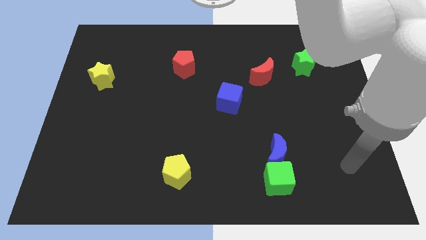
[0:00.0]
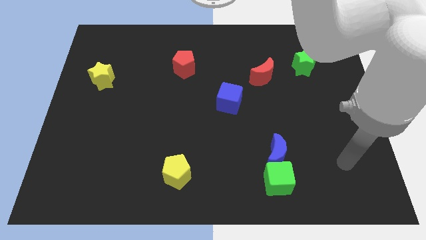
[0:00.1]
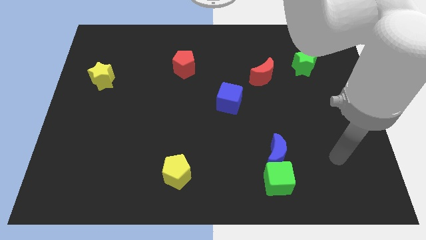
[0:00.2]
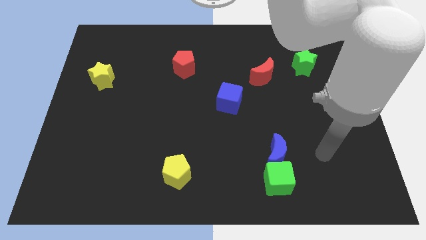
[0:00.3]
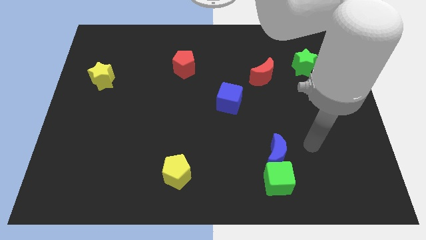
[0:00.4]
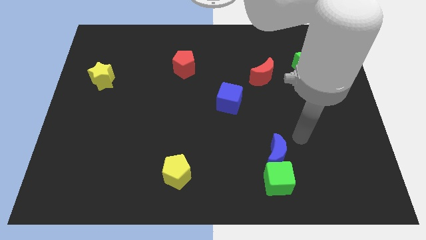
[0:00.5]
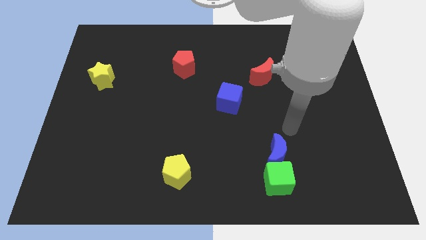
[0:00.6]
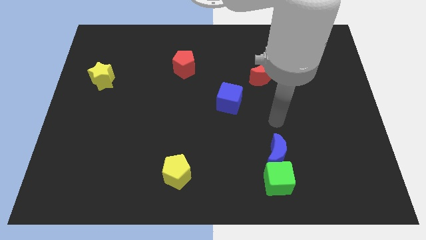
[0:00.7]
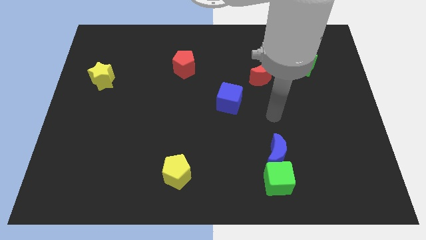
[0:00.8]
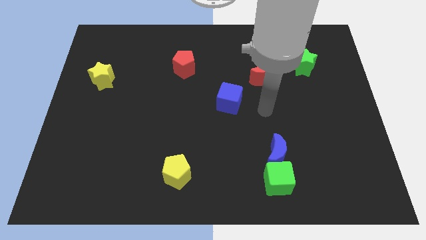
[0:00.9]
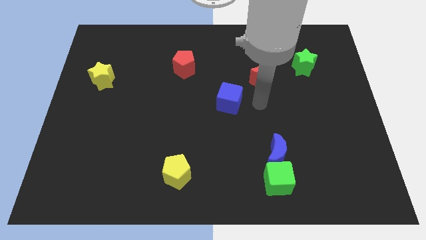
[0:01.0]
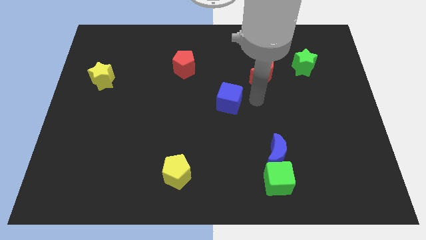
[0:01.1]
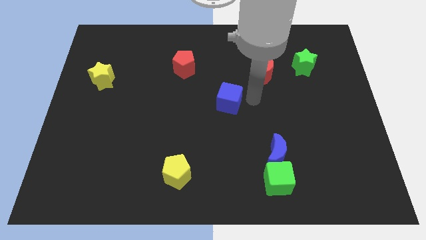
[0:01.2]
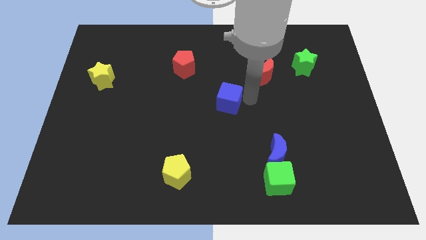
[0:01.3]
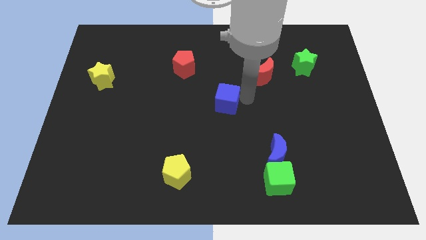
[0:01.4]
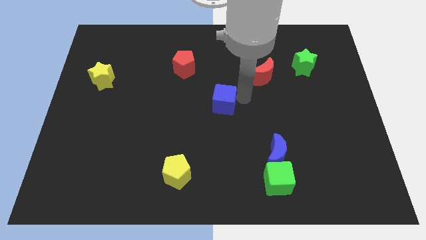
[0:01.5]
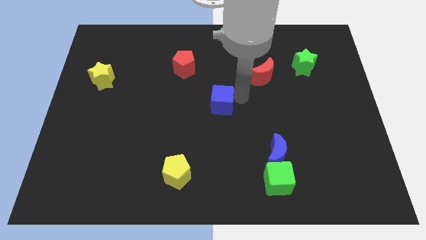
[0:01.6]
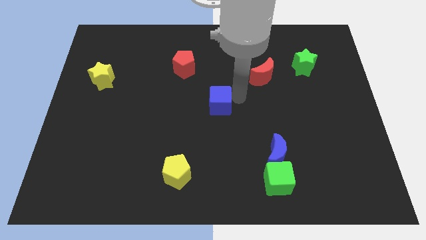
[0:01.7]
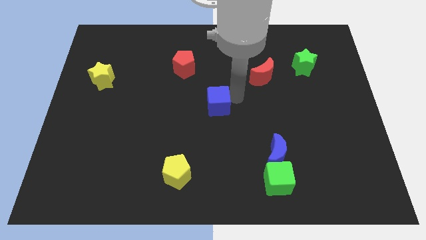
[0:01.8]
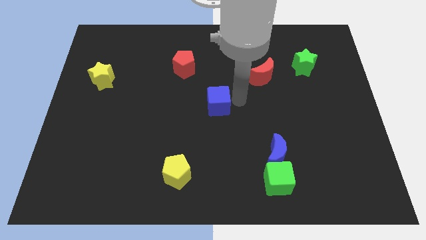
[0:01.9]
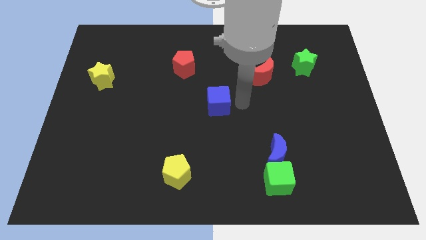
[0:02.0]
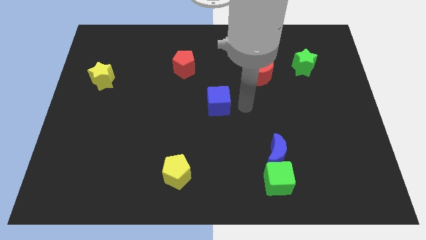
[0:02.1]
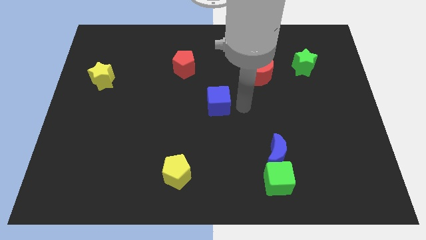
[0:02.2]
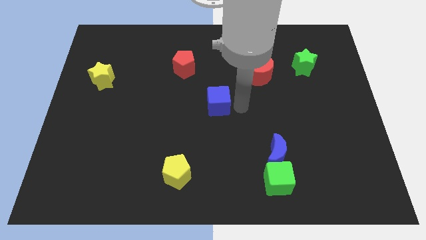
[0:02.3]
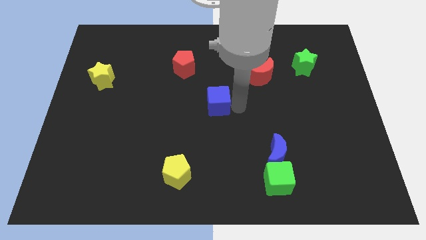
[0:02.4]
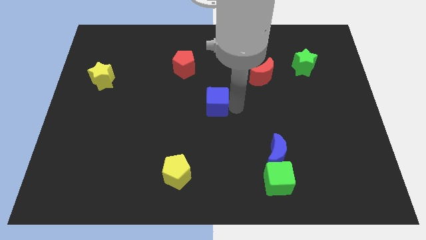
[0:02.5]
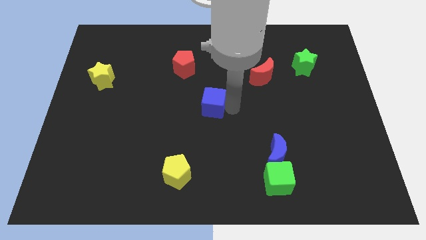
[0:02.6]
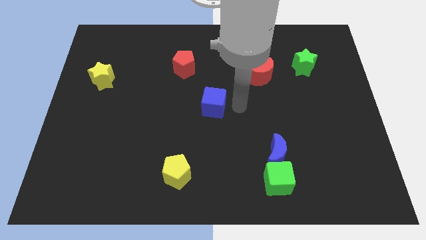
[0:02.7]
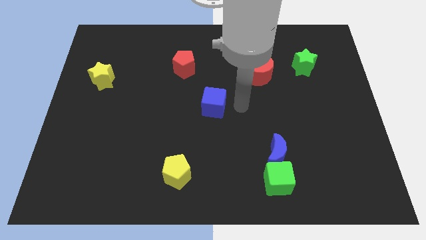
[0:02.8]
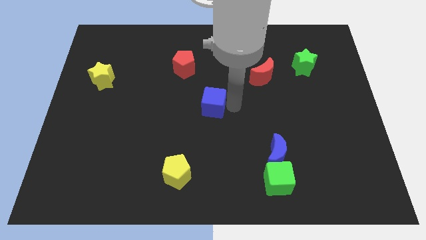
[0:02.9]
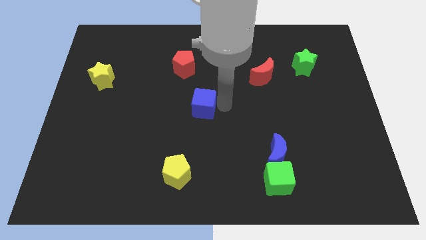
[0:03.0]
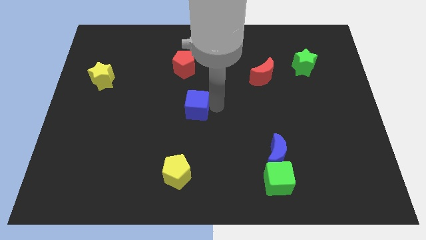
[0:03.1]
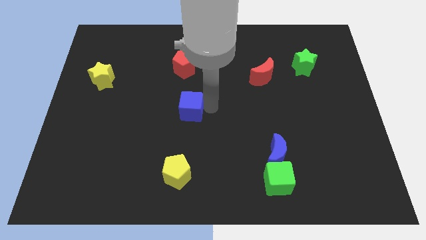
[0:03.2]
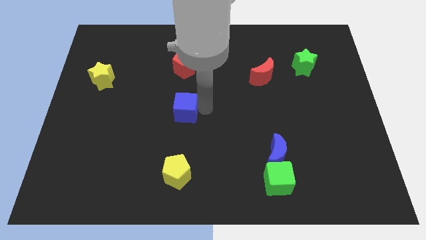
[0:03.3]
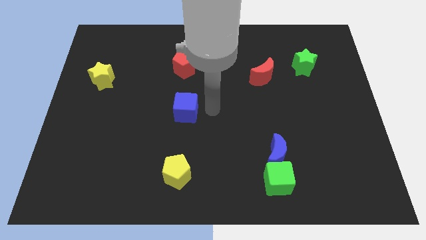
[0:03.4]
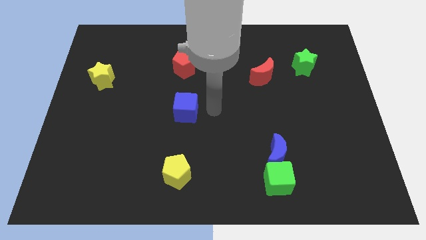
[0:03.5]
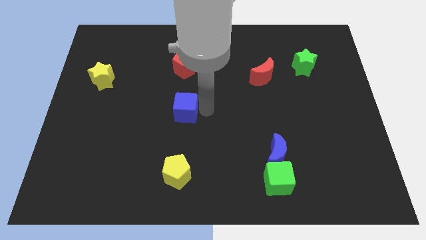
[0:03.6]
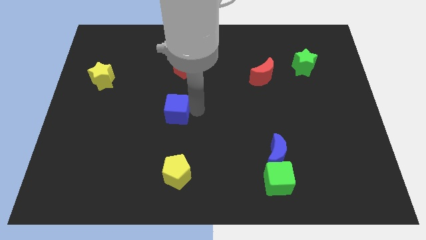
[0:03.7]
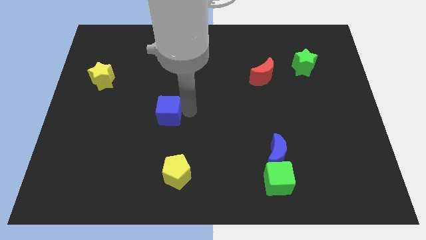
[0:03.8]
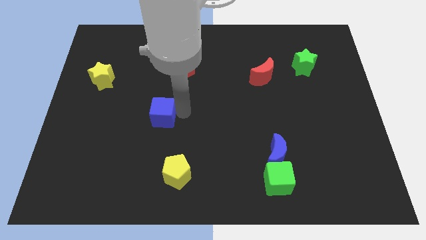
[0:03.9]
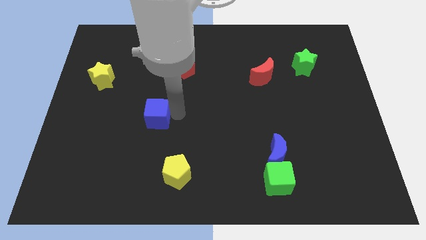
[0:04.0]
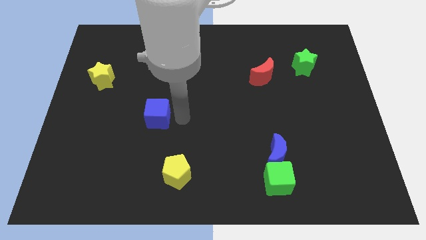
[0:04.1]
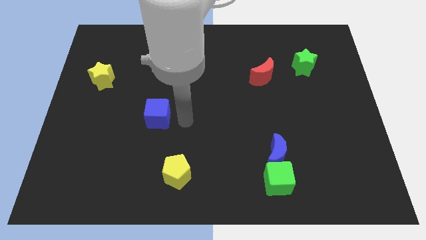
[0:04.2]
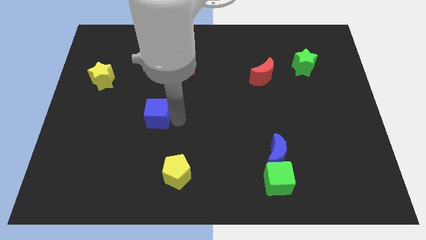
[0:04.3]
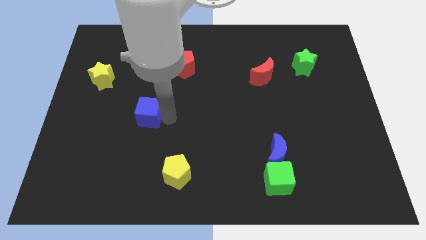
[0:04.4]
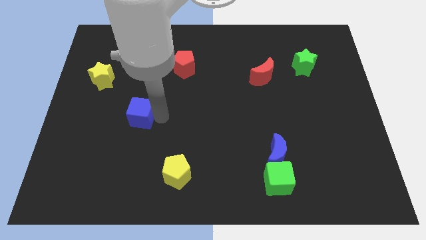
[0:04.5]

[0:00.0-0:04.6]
move the blue cube to the left

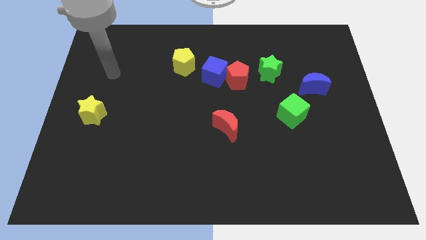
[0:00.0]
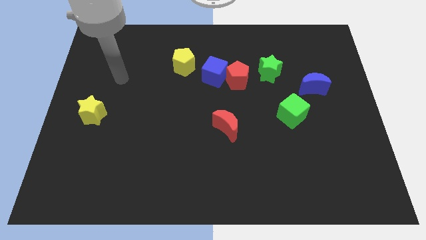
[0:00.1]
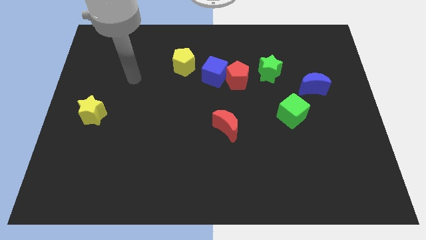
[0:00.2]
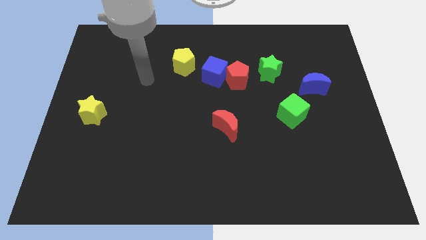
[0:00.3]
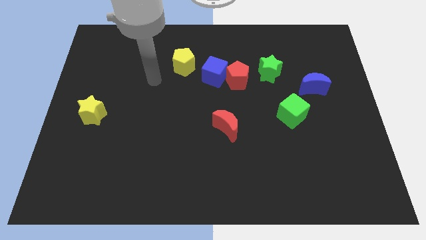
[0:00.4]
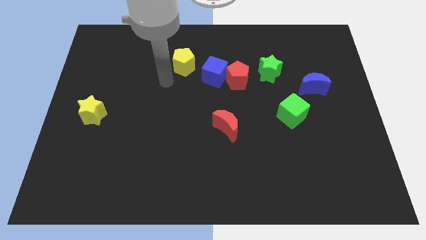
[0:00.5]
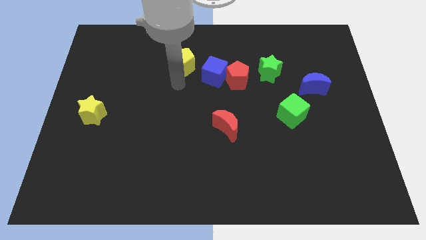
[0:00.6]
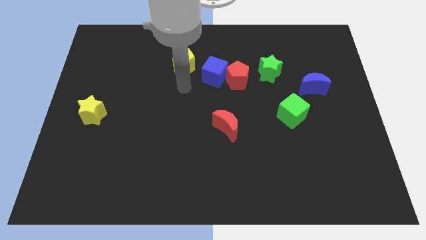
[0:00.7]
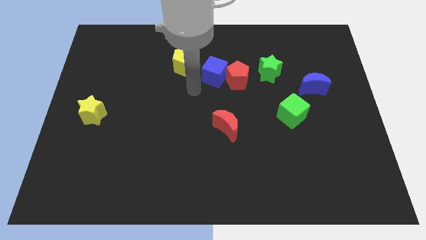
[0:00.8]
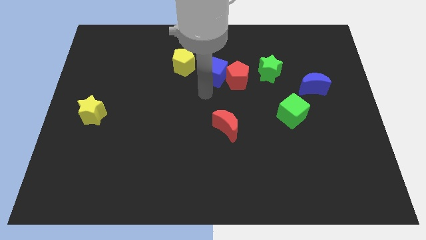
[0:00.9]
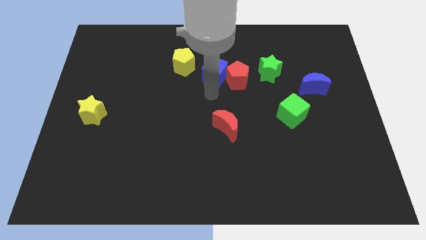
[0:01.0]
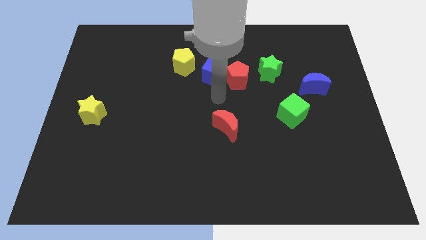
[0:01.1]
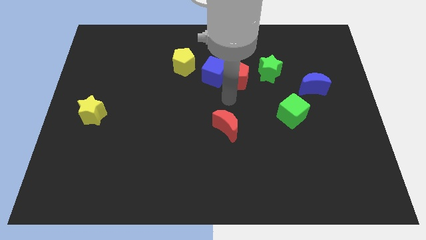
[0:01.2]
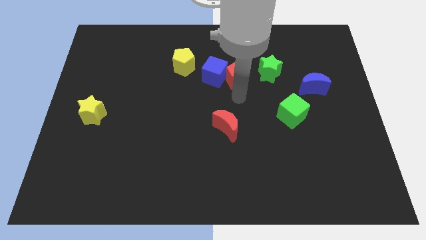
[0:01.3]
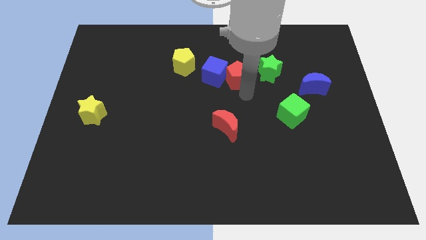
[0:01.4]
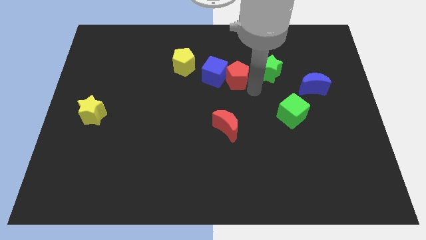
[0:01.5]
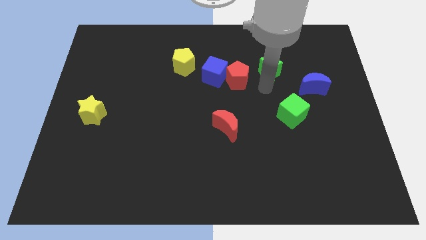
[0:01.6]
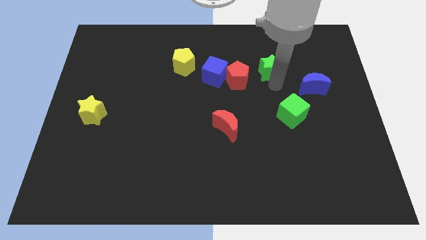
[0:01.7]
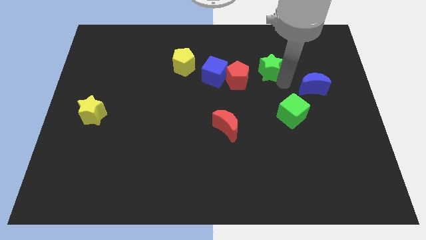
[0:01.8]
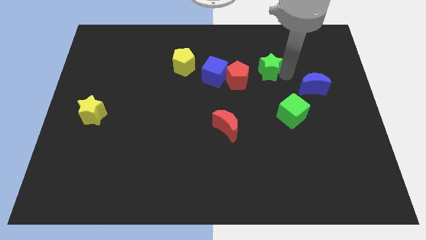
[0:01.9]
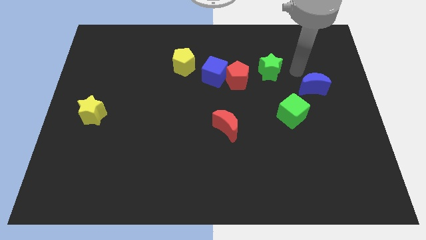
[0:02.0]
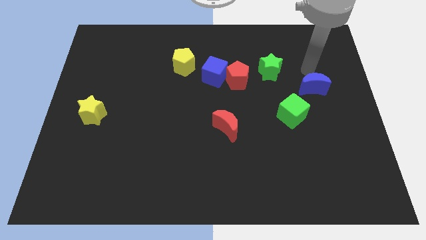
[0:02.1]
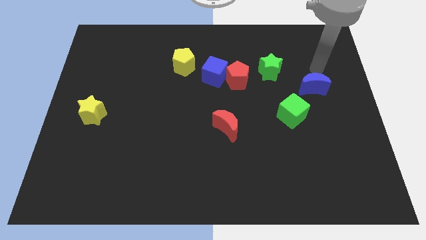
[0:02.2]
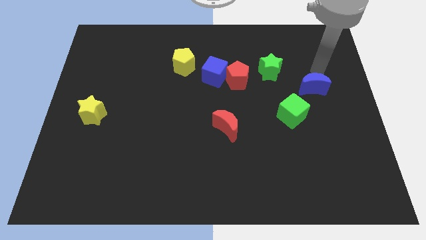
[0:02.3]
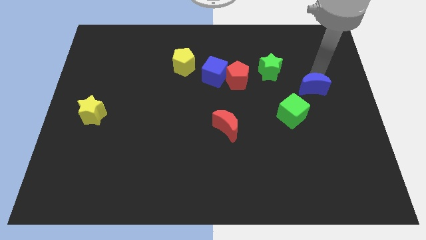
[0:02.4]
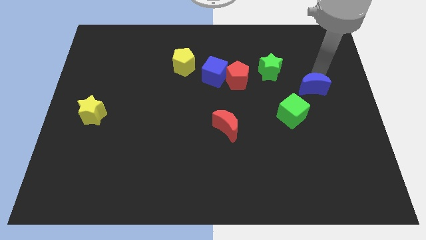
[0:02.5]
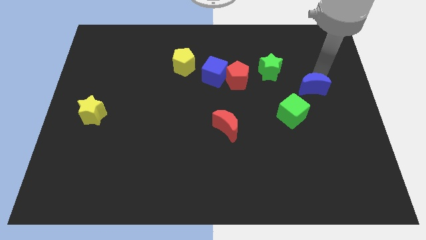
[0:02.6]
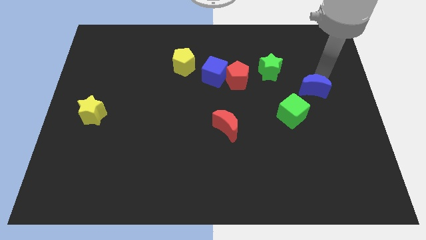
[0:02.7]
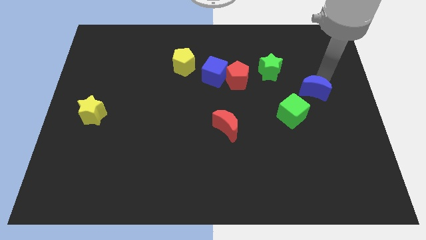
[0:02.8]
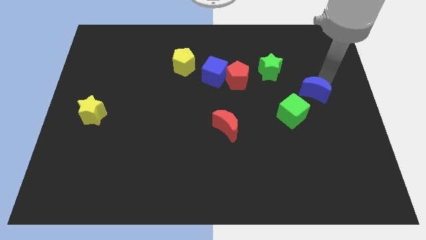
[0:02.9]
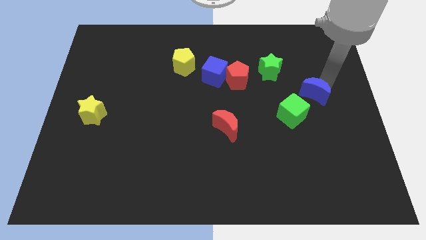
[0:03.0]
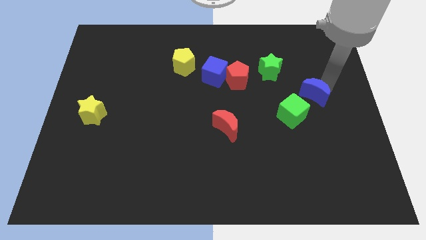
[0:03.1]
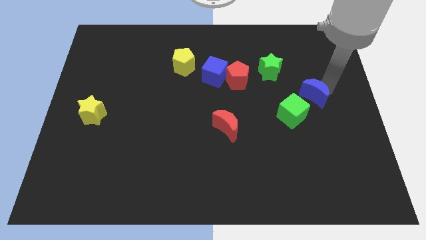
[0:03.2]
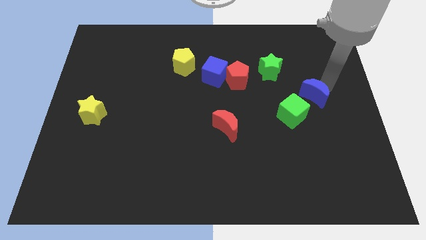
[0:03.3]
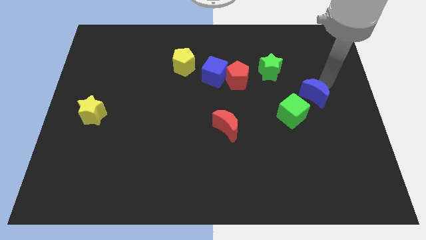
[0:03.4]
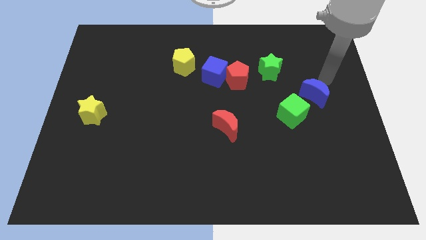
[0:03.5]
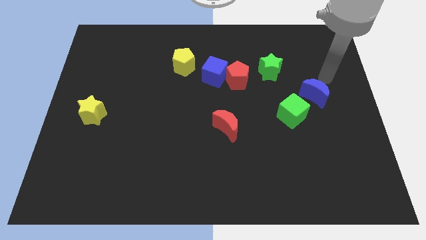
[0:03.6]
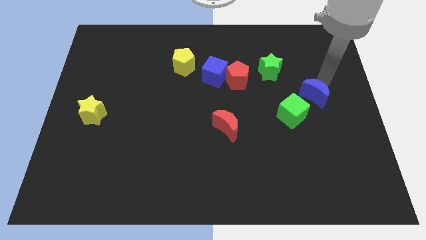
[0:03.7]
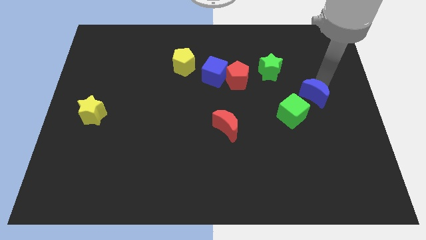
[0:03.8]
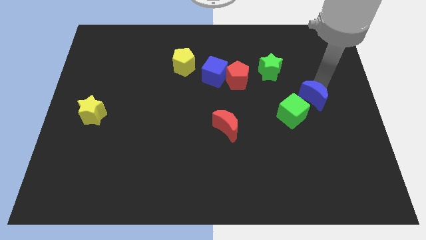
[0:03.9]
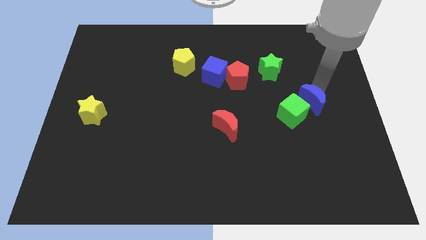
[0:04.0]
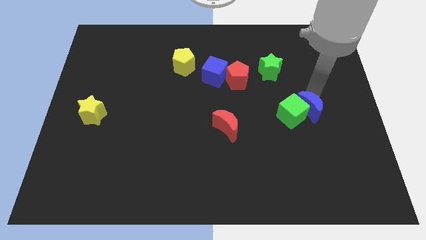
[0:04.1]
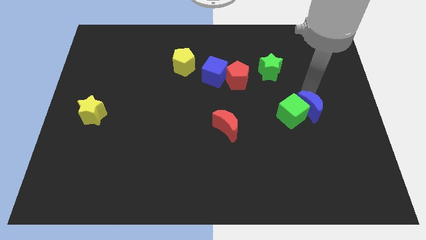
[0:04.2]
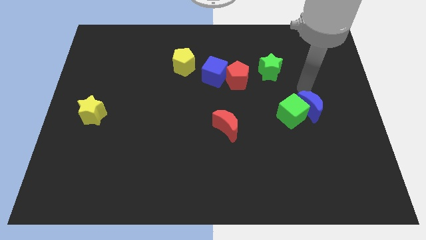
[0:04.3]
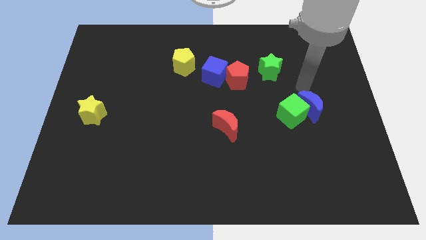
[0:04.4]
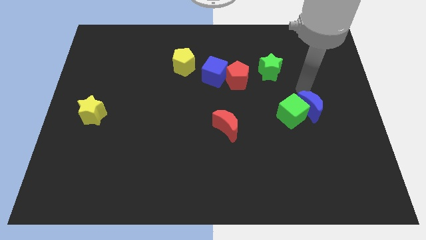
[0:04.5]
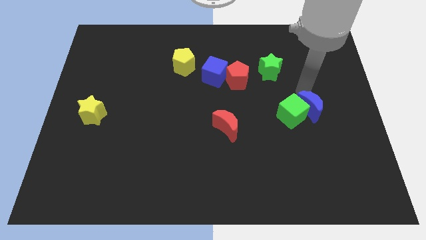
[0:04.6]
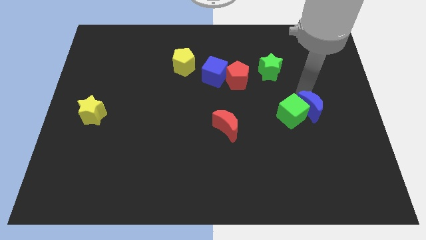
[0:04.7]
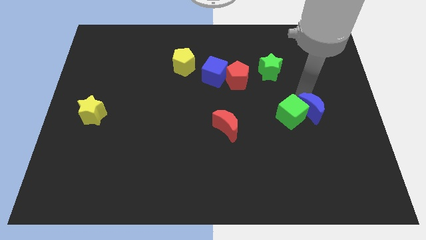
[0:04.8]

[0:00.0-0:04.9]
slightly push the blue moon down
